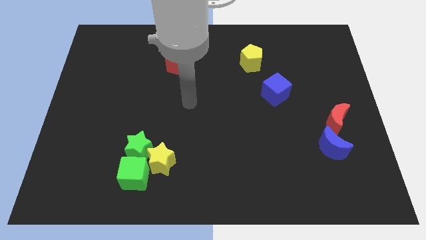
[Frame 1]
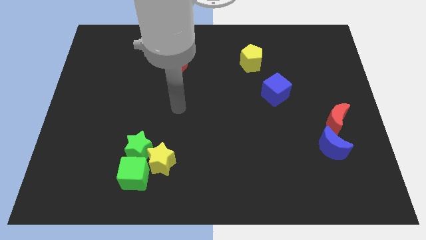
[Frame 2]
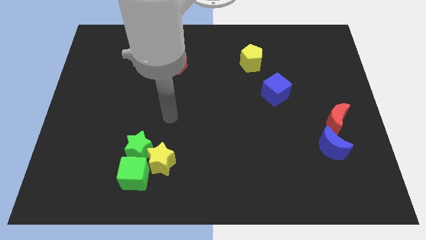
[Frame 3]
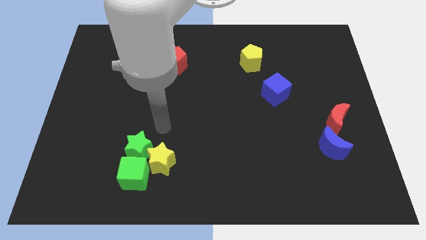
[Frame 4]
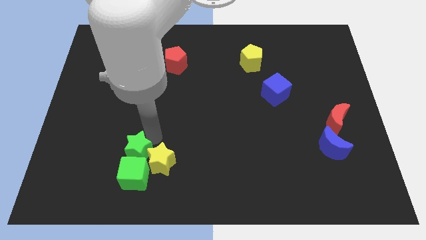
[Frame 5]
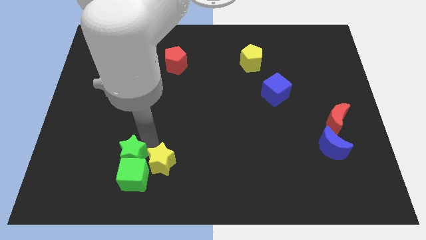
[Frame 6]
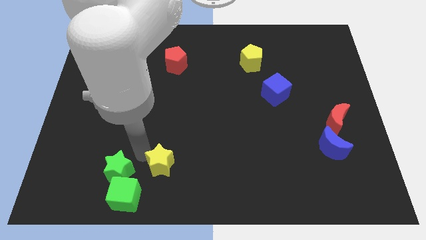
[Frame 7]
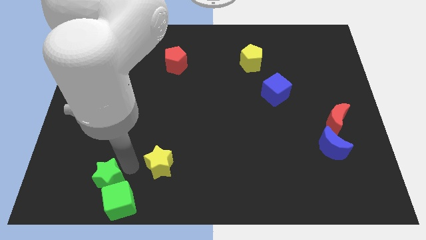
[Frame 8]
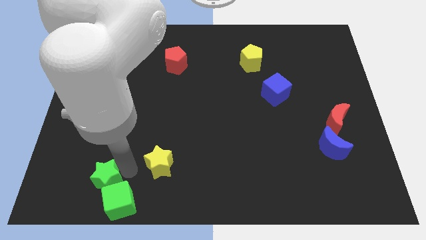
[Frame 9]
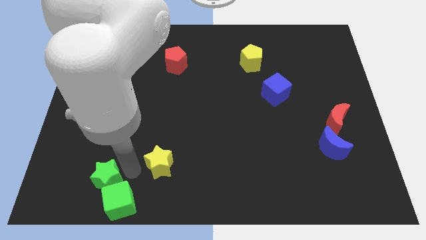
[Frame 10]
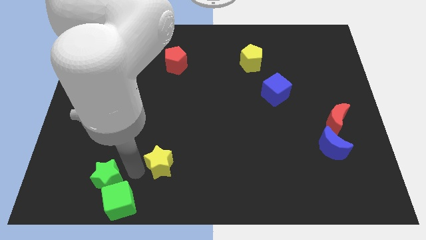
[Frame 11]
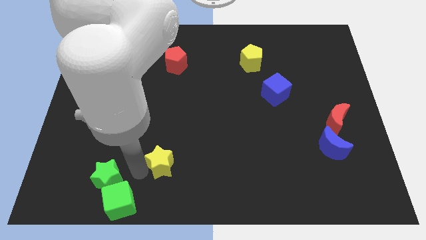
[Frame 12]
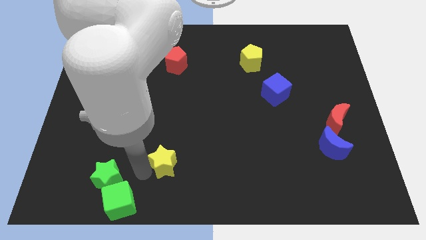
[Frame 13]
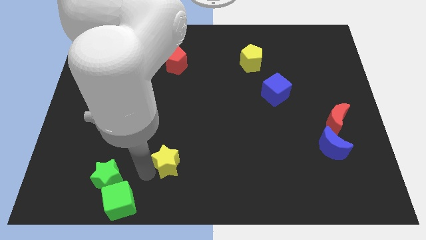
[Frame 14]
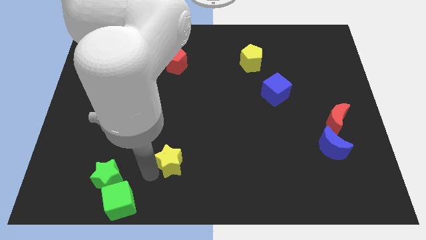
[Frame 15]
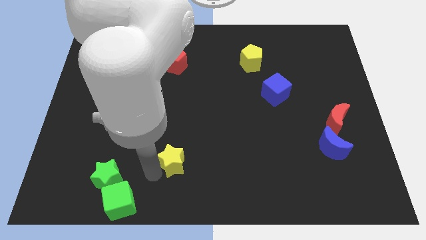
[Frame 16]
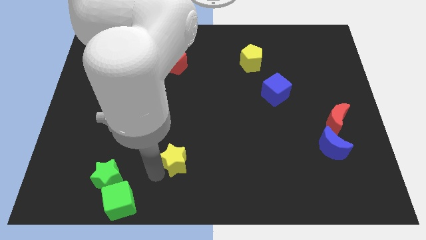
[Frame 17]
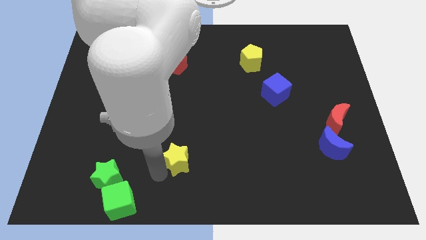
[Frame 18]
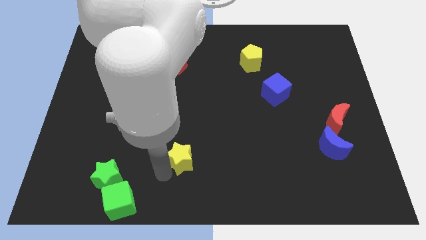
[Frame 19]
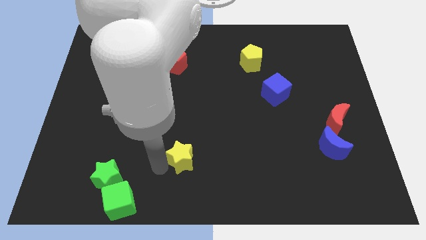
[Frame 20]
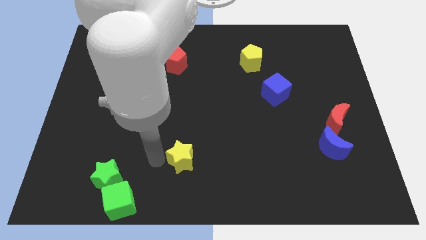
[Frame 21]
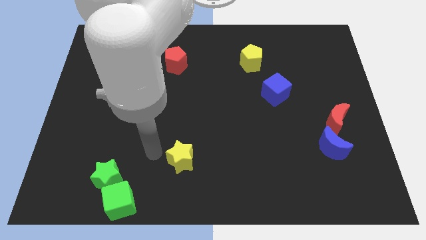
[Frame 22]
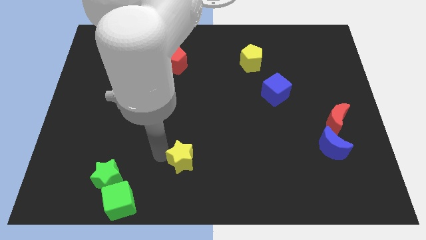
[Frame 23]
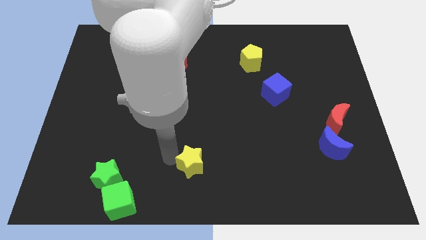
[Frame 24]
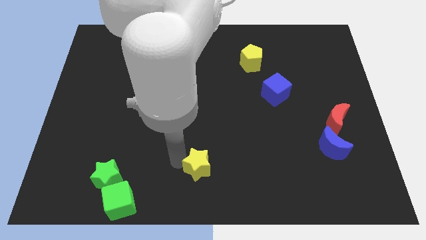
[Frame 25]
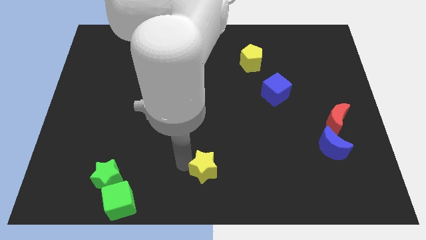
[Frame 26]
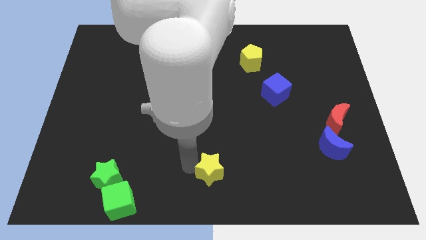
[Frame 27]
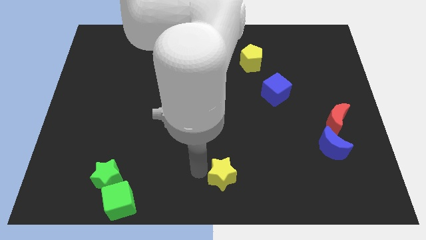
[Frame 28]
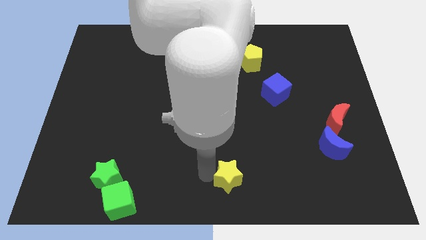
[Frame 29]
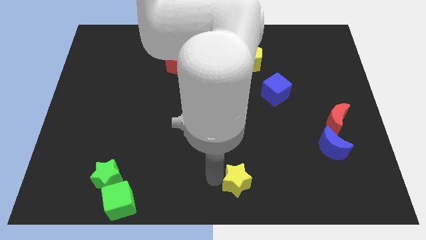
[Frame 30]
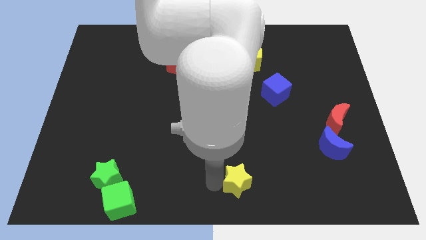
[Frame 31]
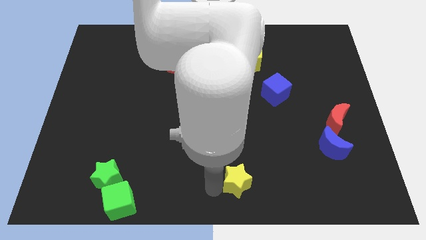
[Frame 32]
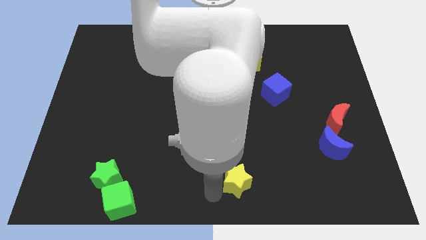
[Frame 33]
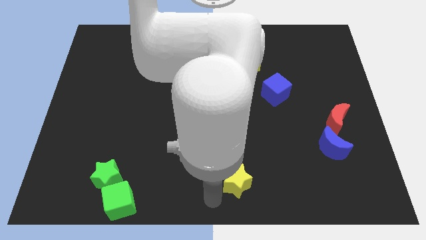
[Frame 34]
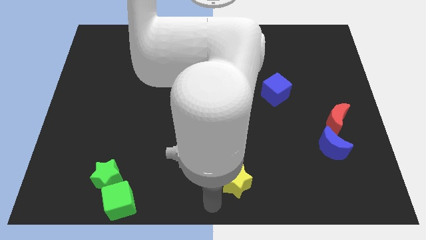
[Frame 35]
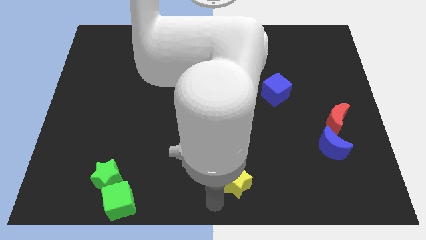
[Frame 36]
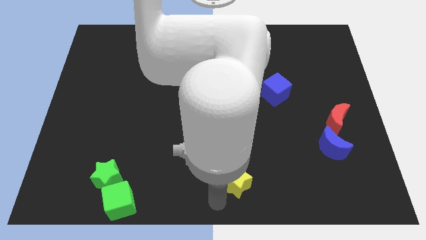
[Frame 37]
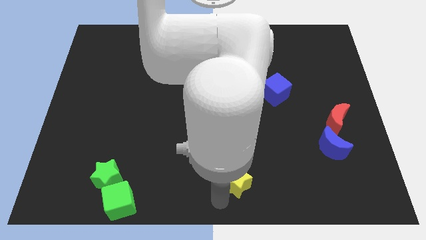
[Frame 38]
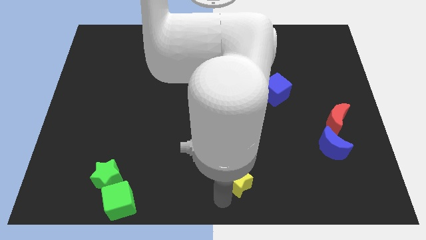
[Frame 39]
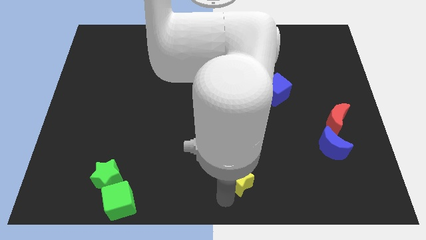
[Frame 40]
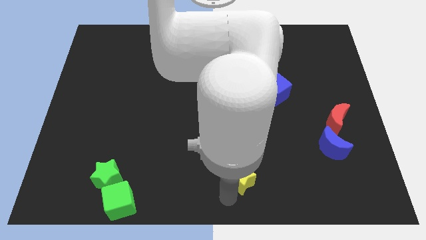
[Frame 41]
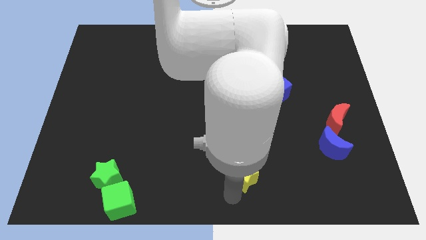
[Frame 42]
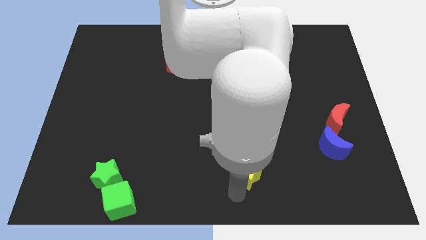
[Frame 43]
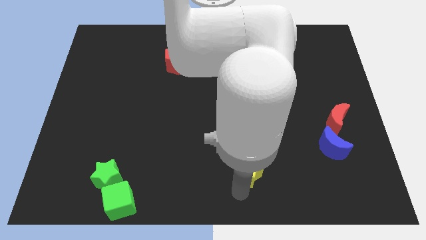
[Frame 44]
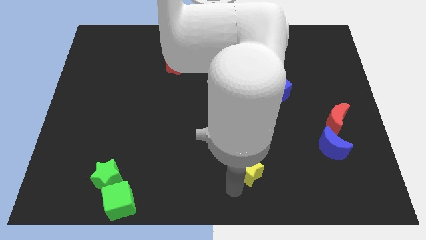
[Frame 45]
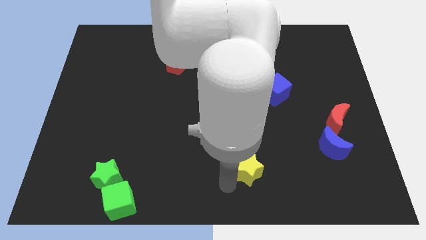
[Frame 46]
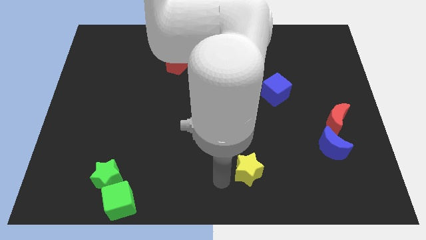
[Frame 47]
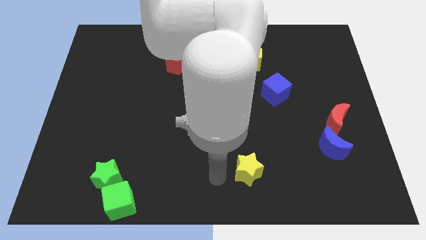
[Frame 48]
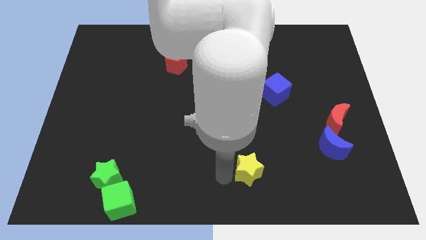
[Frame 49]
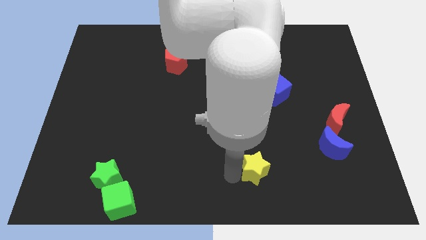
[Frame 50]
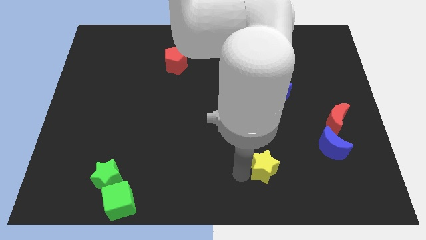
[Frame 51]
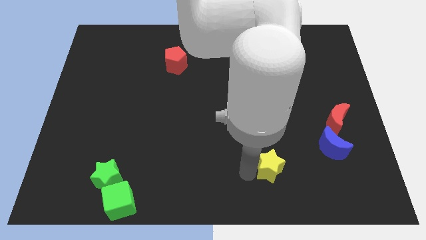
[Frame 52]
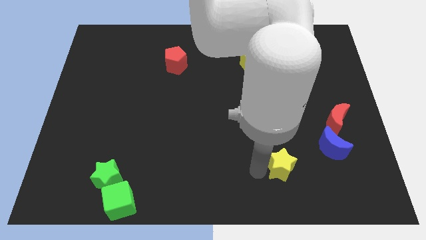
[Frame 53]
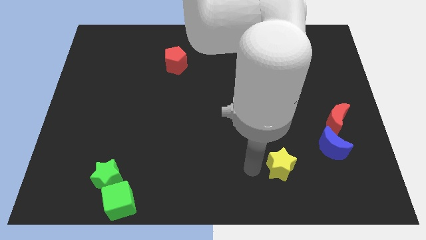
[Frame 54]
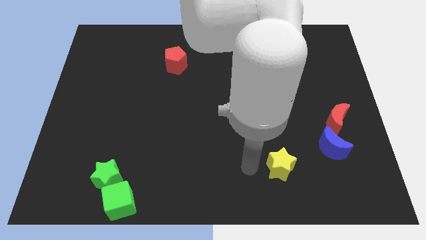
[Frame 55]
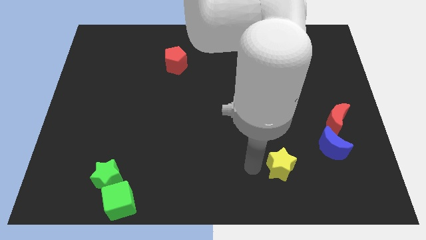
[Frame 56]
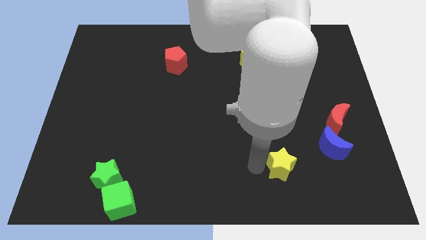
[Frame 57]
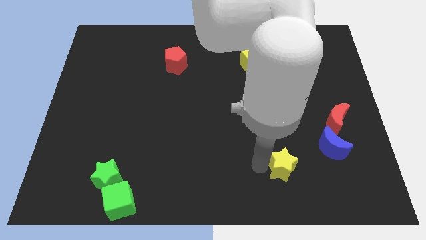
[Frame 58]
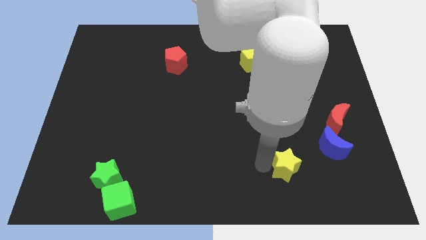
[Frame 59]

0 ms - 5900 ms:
put the yellow star to the bottom left of the blue moon

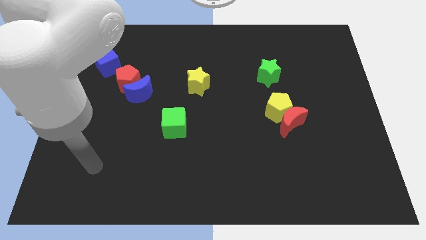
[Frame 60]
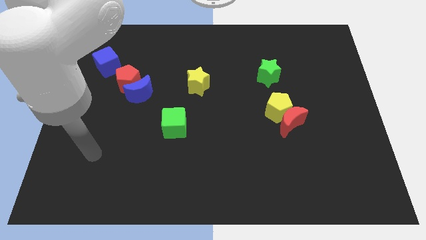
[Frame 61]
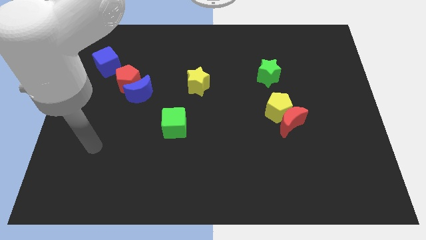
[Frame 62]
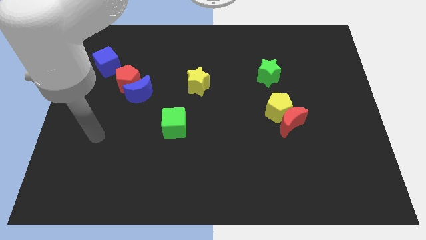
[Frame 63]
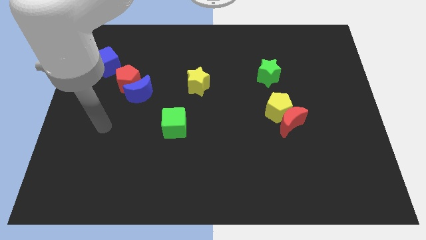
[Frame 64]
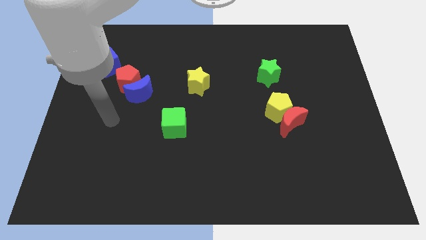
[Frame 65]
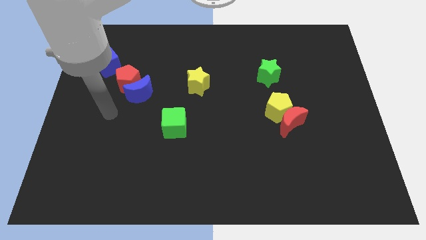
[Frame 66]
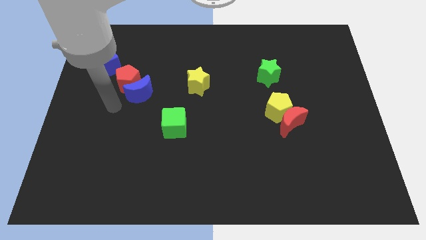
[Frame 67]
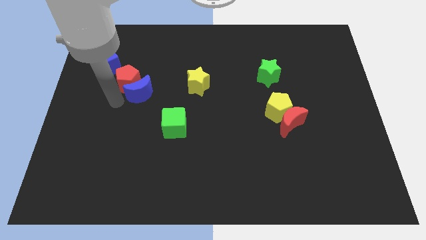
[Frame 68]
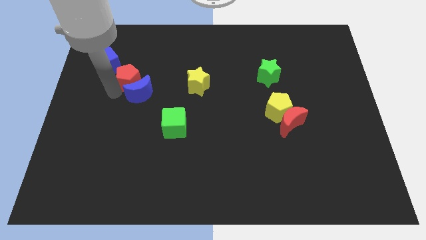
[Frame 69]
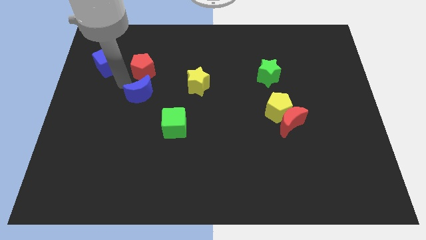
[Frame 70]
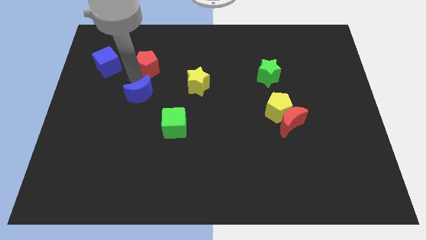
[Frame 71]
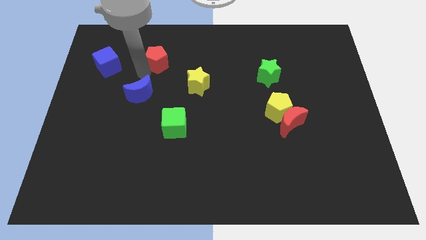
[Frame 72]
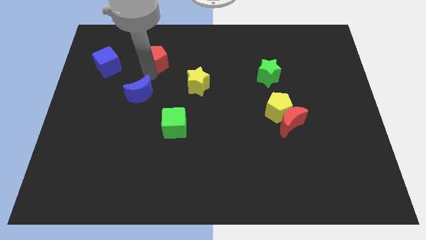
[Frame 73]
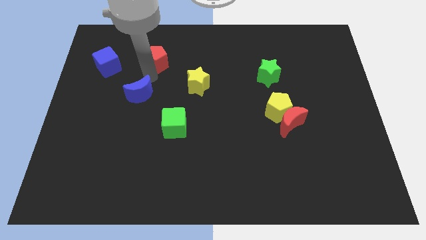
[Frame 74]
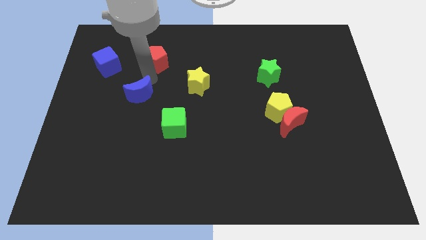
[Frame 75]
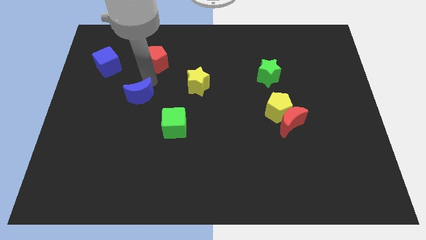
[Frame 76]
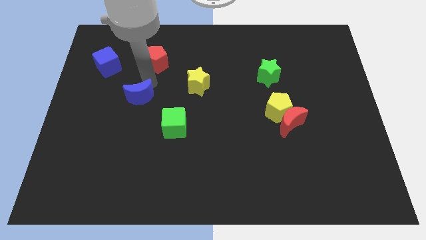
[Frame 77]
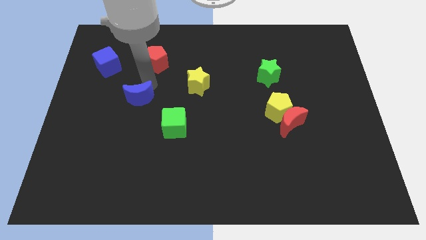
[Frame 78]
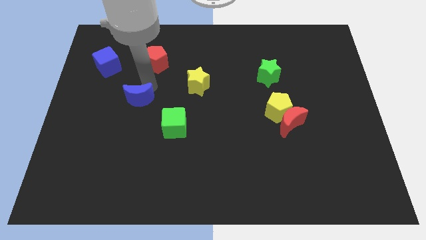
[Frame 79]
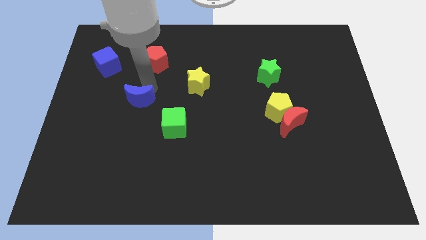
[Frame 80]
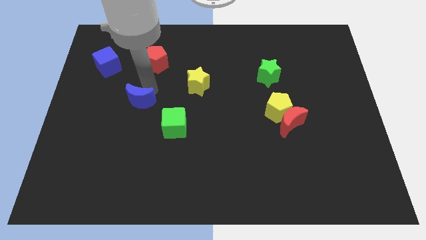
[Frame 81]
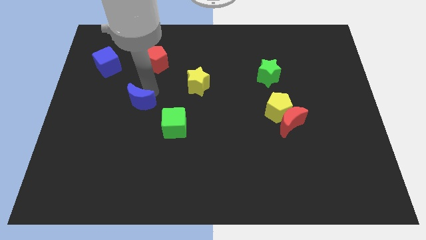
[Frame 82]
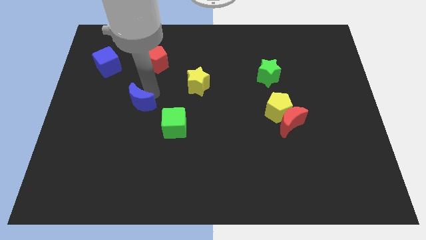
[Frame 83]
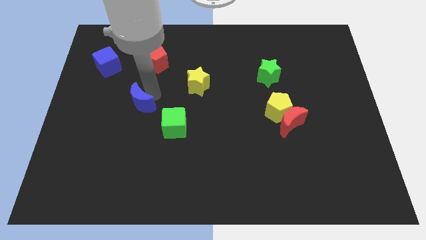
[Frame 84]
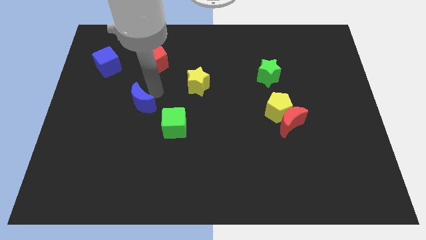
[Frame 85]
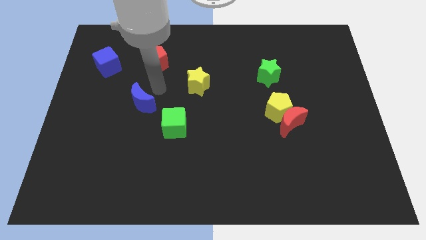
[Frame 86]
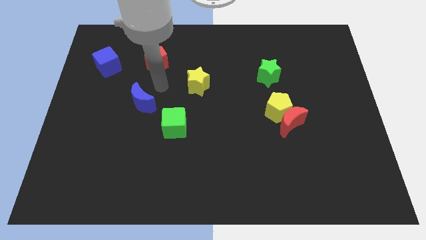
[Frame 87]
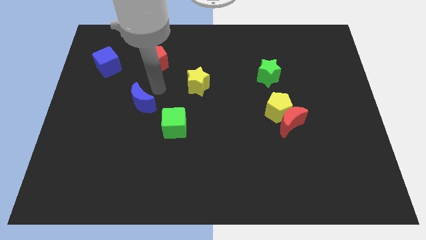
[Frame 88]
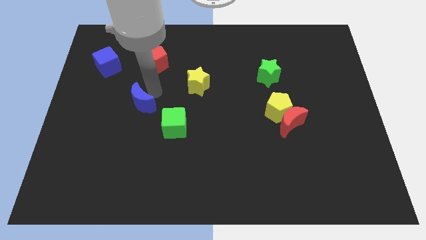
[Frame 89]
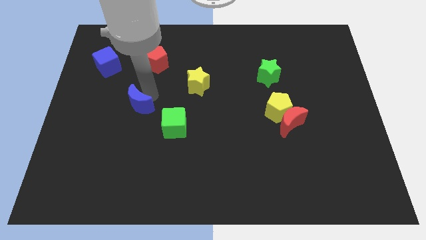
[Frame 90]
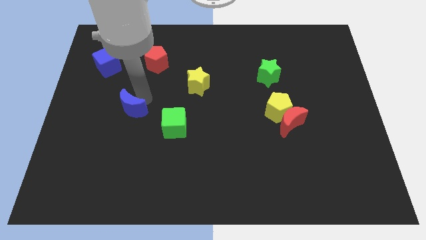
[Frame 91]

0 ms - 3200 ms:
slide the blue moon left of the green cube

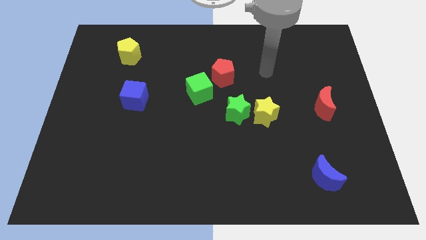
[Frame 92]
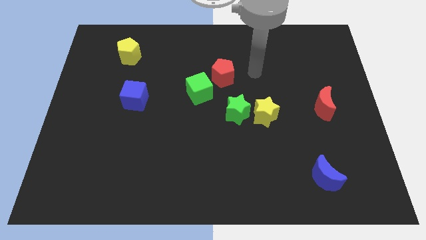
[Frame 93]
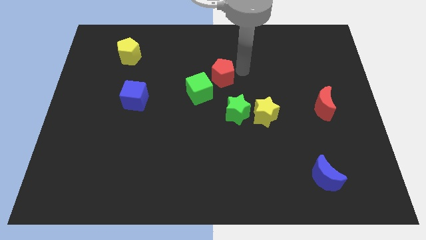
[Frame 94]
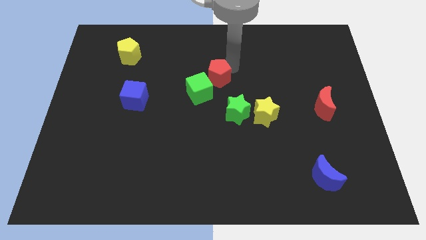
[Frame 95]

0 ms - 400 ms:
move the green cube to the bottom side of the red pentagon
